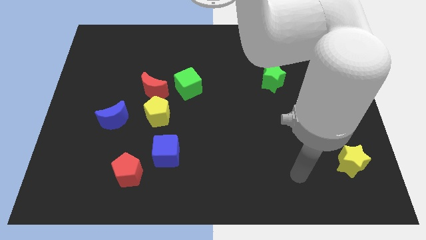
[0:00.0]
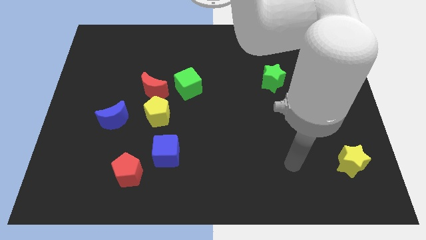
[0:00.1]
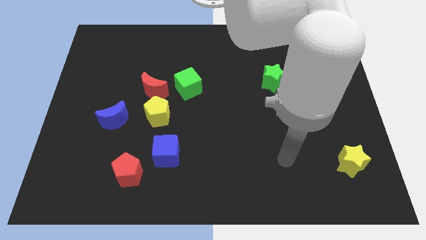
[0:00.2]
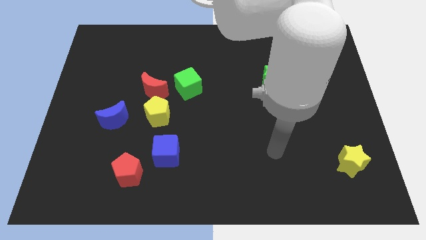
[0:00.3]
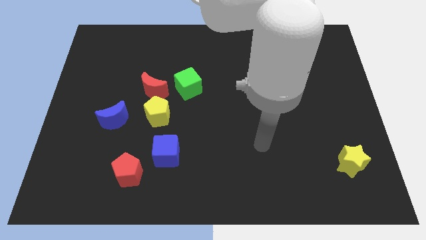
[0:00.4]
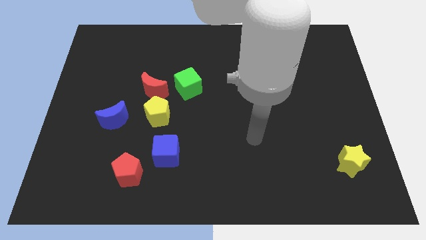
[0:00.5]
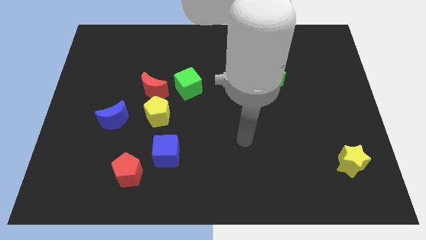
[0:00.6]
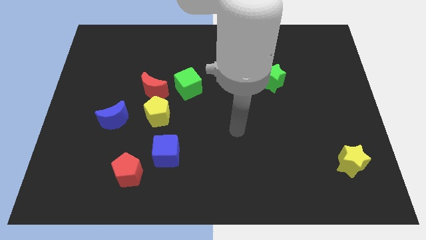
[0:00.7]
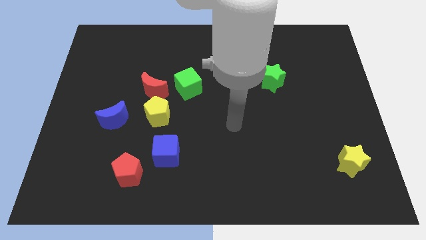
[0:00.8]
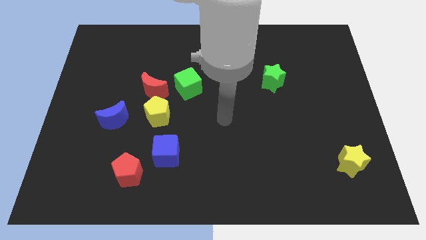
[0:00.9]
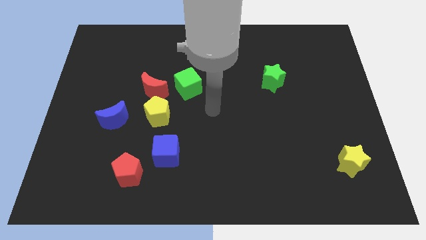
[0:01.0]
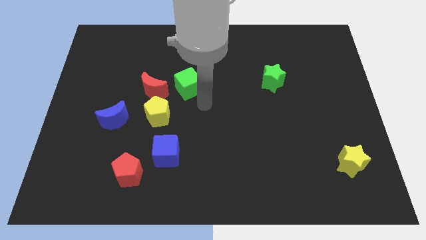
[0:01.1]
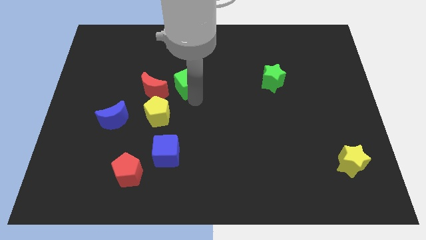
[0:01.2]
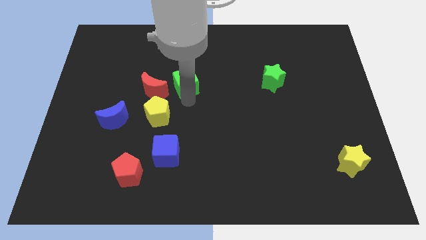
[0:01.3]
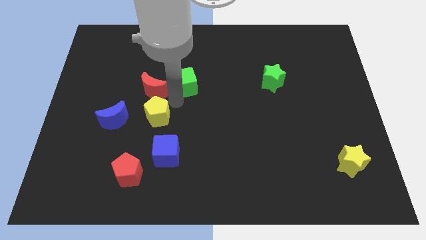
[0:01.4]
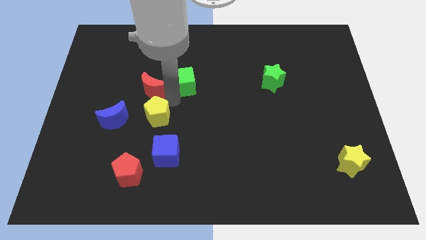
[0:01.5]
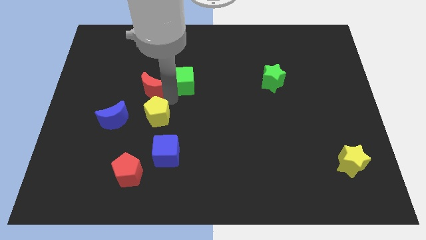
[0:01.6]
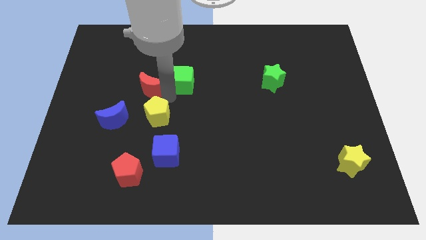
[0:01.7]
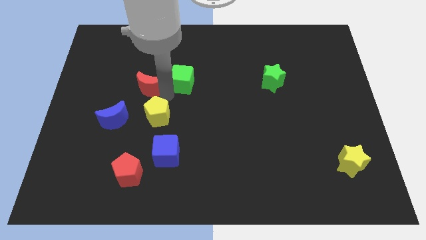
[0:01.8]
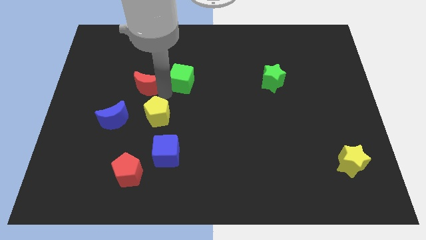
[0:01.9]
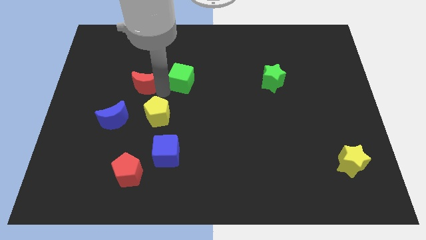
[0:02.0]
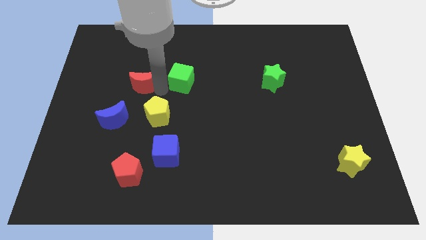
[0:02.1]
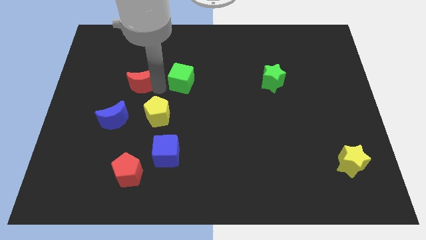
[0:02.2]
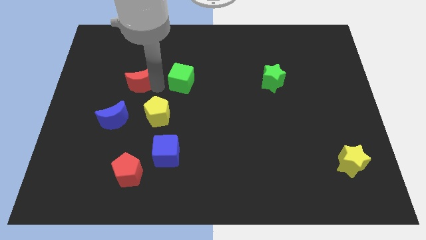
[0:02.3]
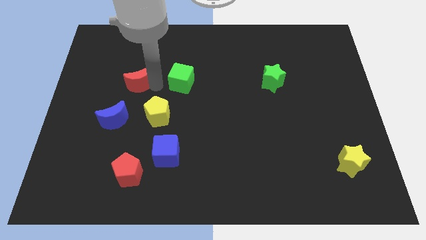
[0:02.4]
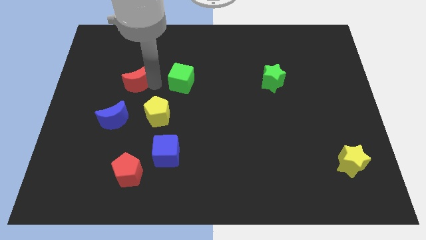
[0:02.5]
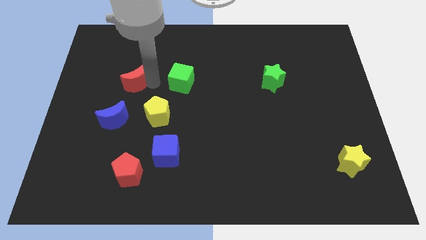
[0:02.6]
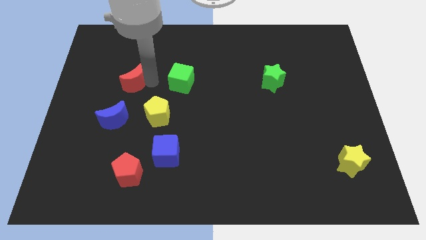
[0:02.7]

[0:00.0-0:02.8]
pull the red moon apart from the yellow pentagon and green cube

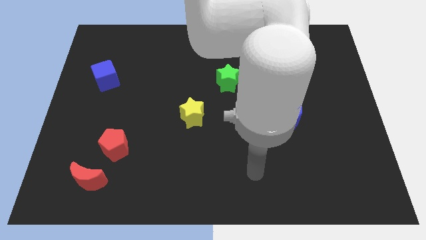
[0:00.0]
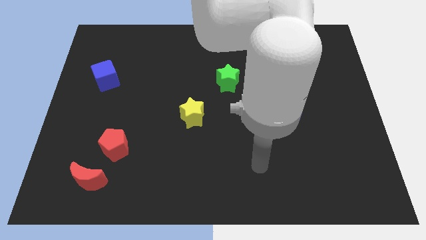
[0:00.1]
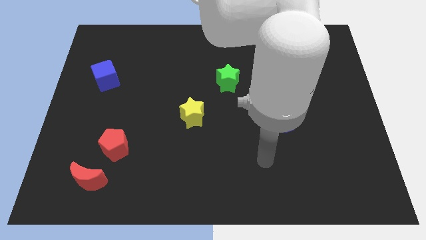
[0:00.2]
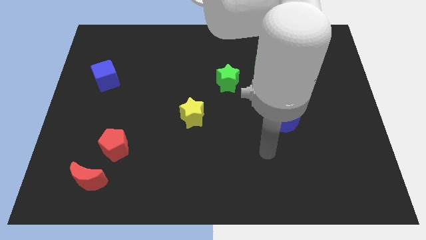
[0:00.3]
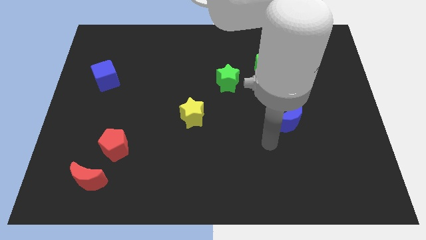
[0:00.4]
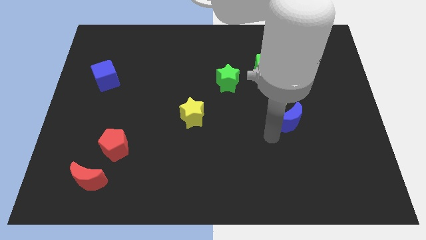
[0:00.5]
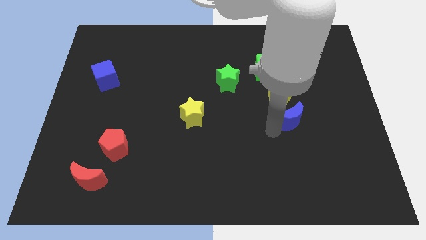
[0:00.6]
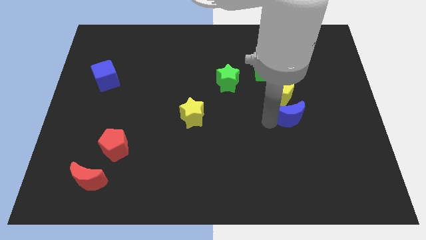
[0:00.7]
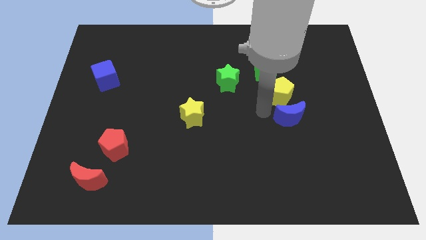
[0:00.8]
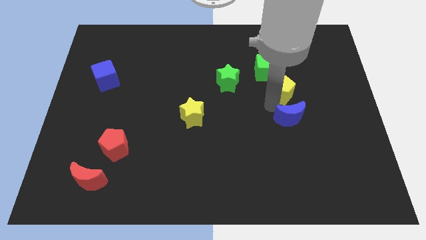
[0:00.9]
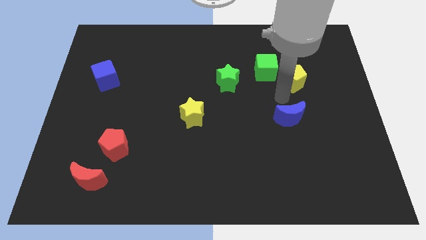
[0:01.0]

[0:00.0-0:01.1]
pull the blue moon apart from the yellow pentagon

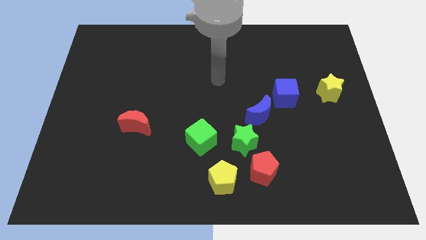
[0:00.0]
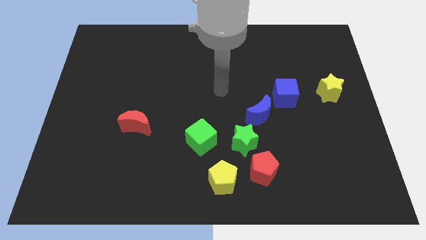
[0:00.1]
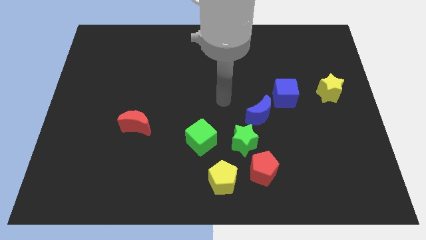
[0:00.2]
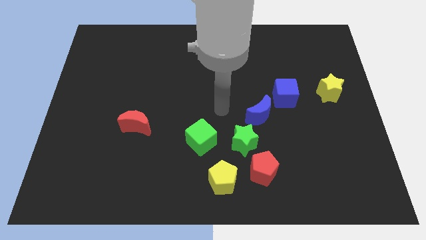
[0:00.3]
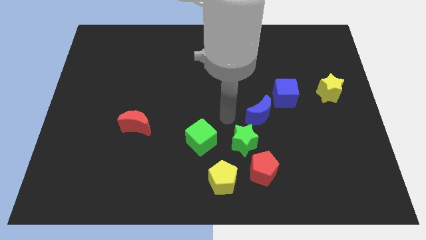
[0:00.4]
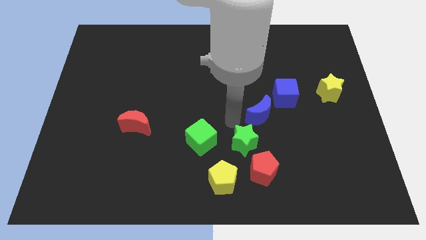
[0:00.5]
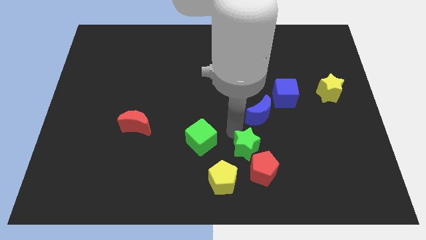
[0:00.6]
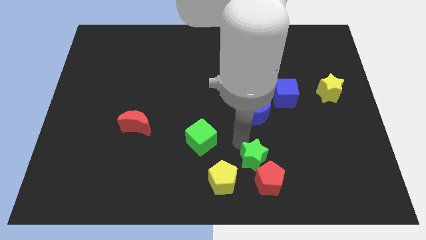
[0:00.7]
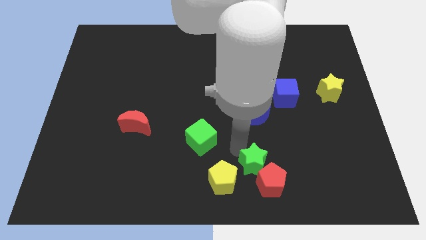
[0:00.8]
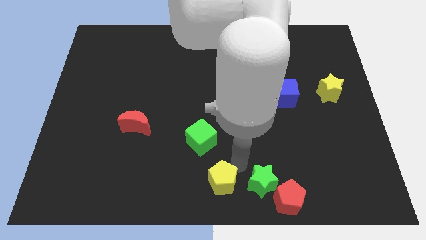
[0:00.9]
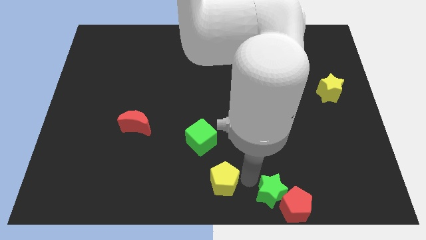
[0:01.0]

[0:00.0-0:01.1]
separate the red pentagon from the green star and yellow pentagon

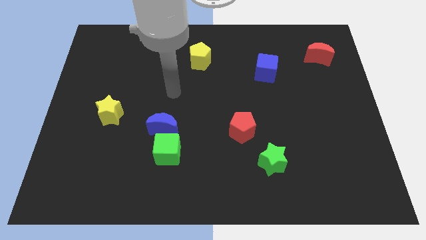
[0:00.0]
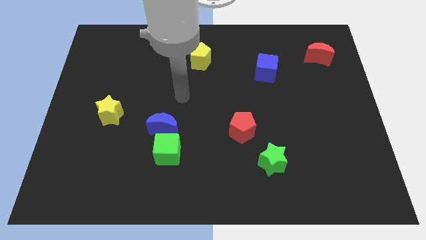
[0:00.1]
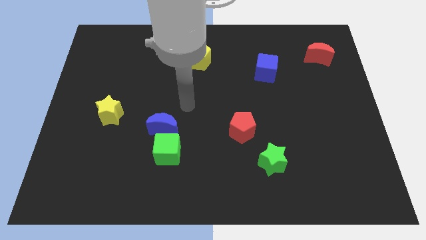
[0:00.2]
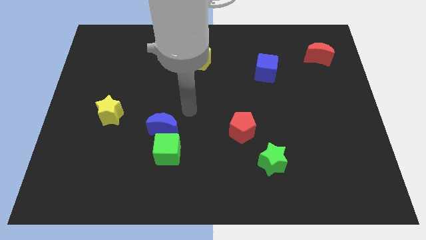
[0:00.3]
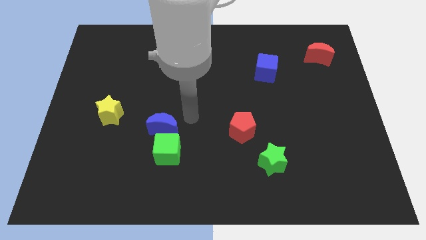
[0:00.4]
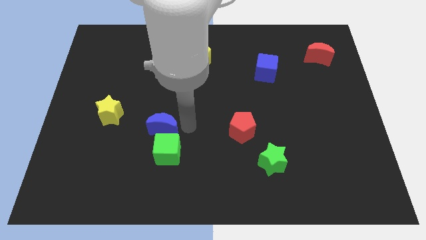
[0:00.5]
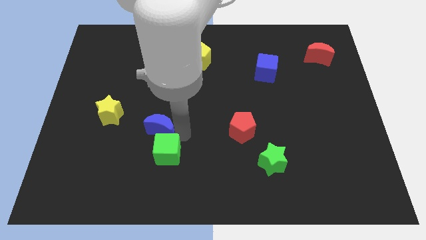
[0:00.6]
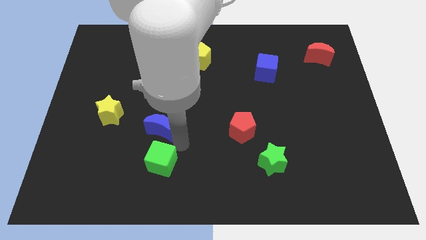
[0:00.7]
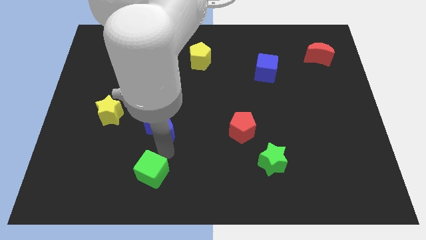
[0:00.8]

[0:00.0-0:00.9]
move the blue moon away from the green cube

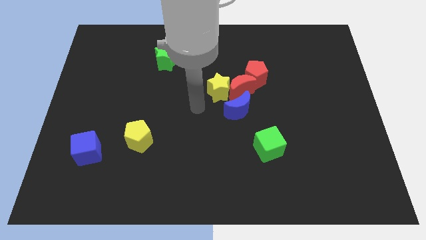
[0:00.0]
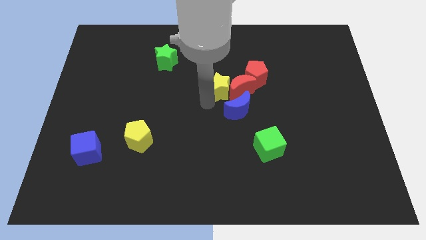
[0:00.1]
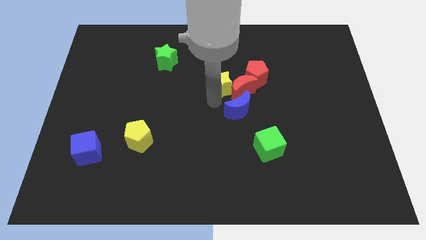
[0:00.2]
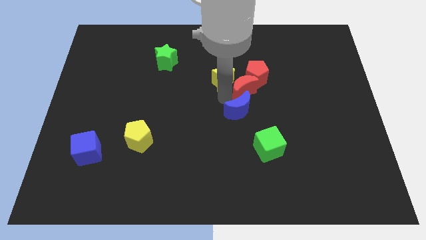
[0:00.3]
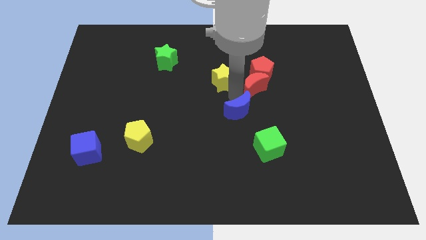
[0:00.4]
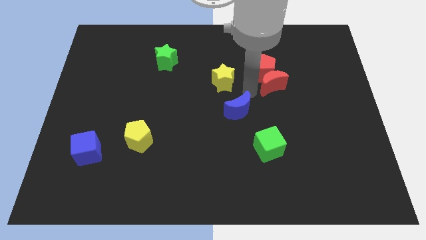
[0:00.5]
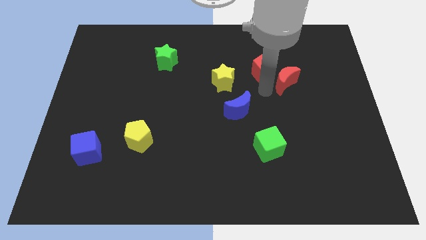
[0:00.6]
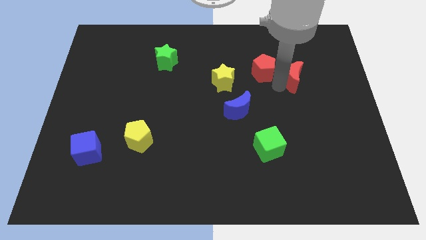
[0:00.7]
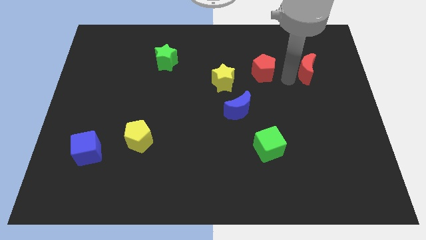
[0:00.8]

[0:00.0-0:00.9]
separate the red pentagon from the red moon

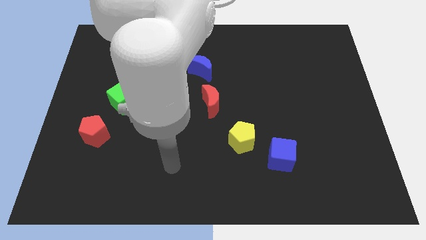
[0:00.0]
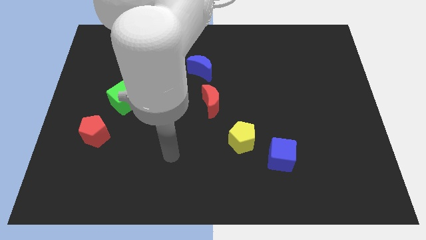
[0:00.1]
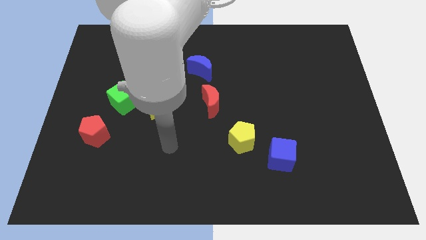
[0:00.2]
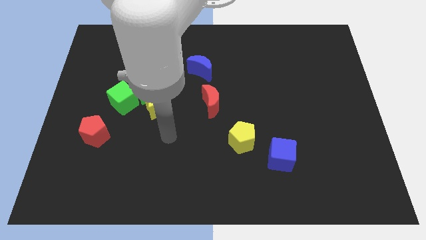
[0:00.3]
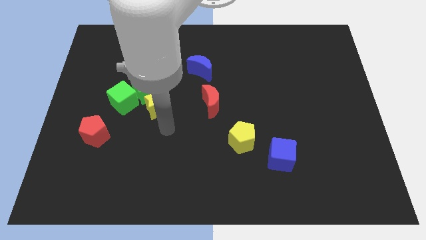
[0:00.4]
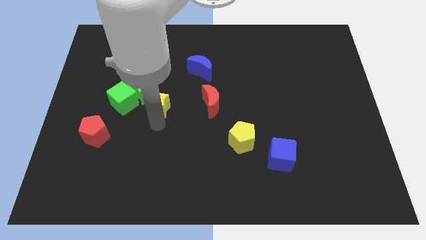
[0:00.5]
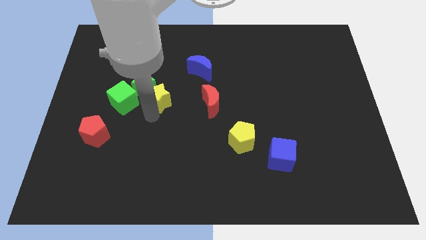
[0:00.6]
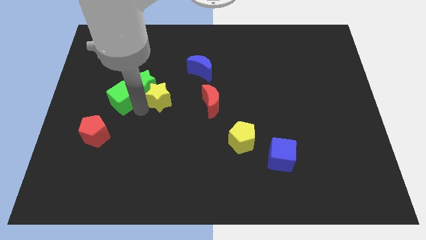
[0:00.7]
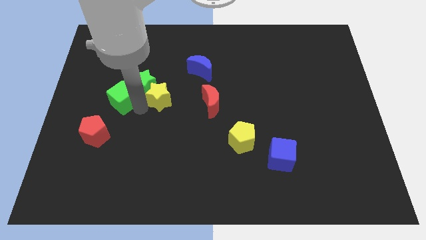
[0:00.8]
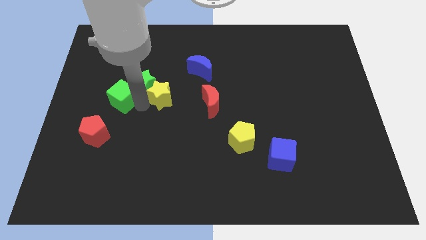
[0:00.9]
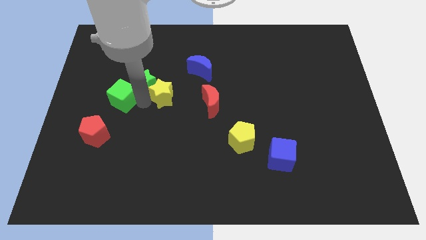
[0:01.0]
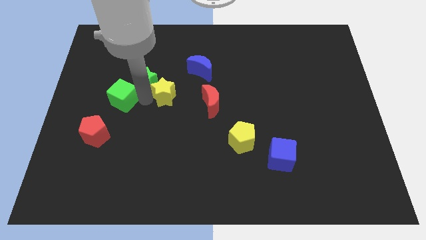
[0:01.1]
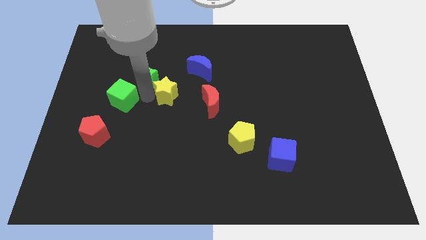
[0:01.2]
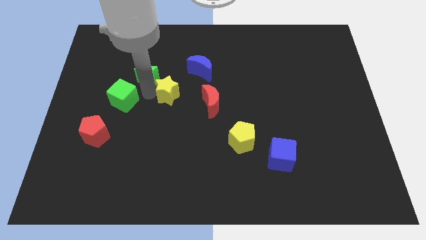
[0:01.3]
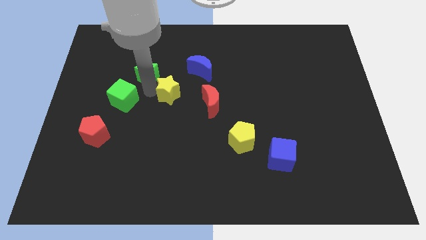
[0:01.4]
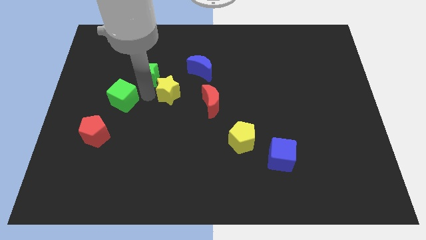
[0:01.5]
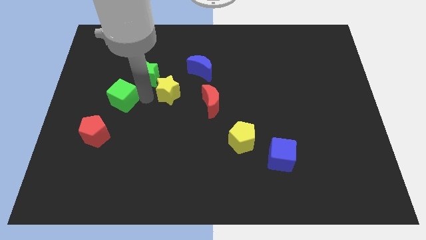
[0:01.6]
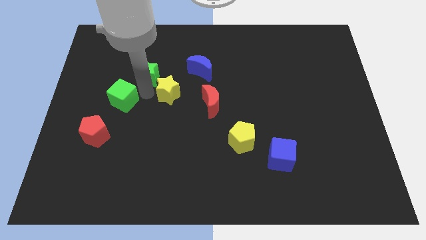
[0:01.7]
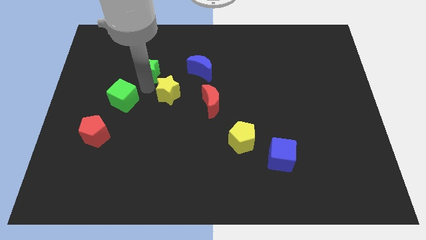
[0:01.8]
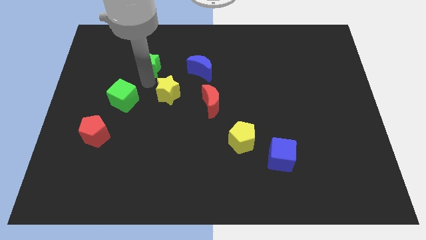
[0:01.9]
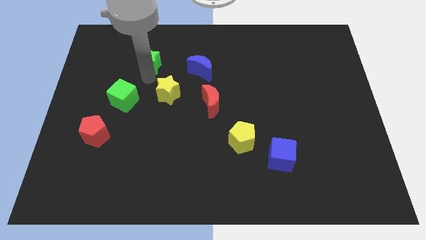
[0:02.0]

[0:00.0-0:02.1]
separate the green star from the green cube and yellow star

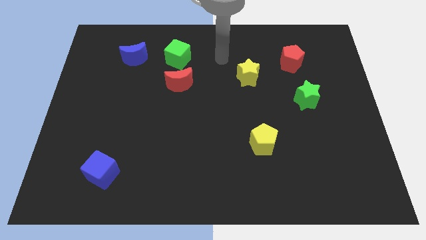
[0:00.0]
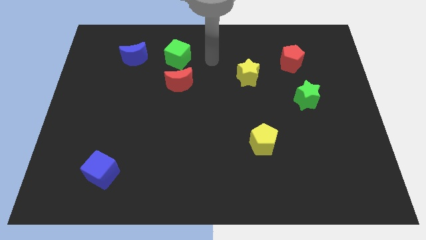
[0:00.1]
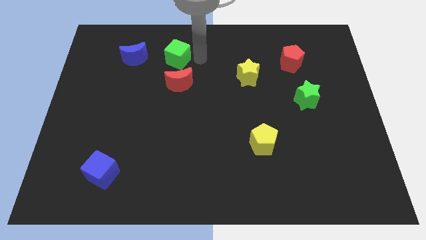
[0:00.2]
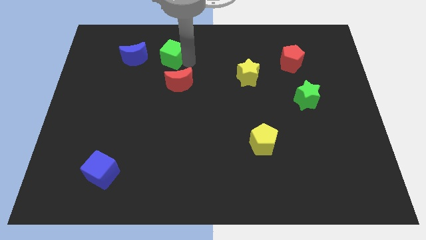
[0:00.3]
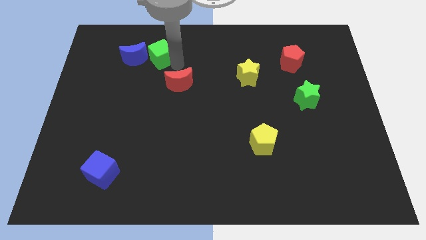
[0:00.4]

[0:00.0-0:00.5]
move the red moon away from the green cube
